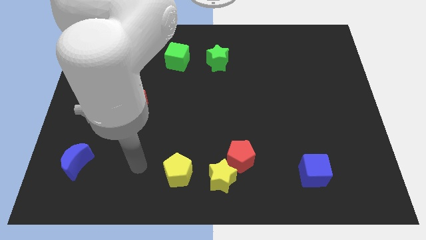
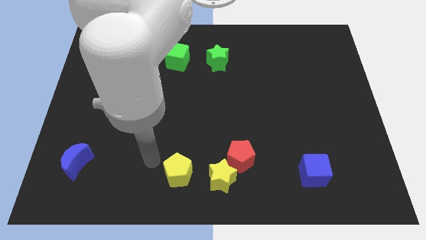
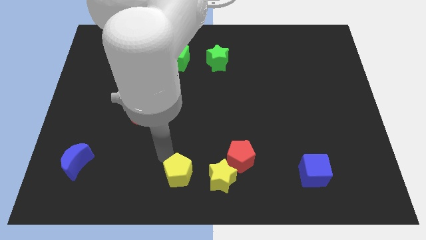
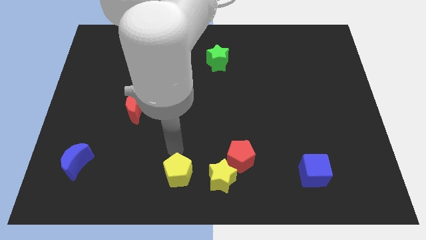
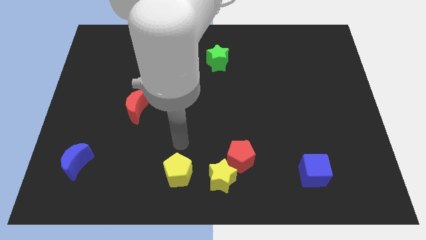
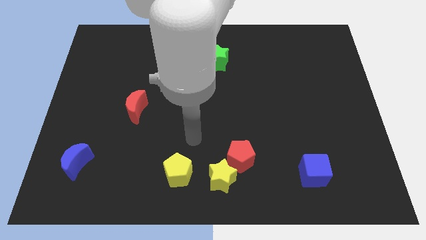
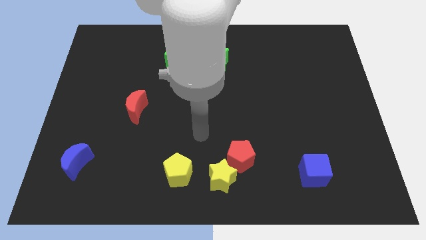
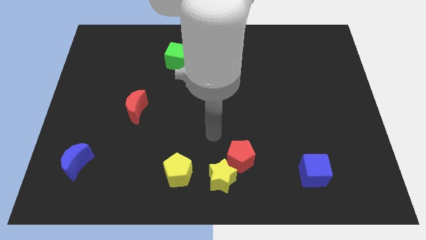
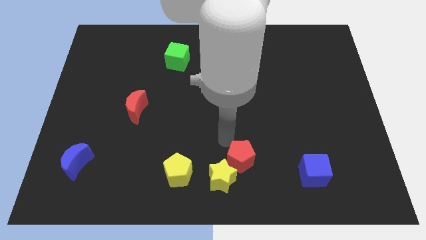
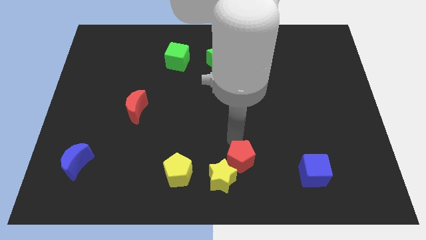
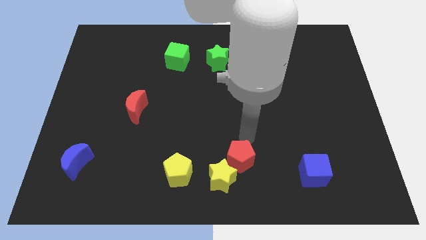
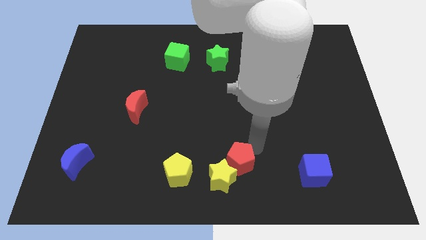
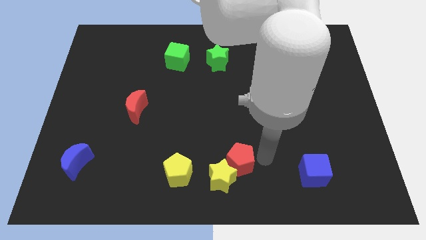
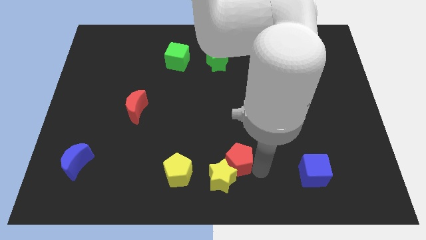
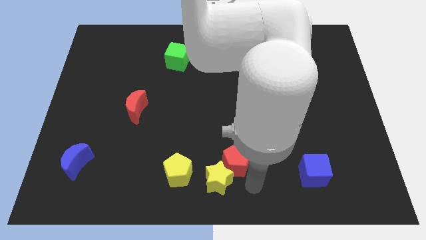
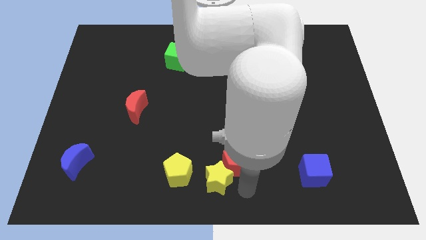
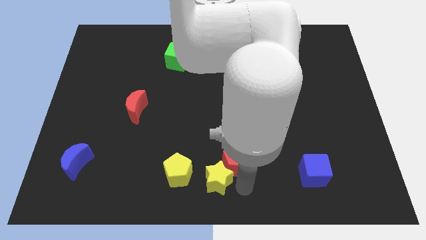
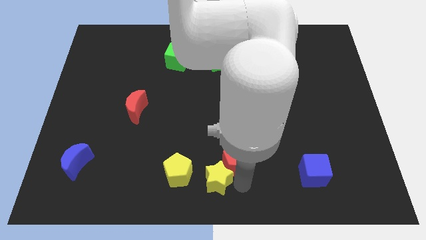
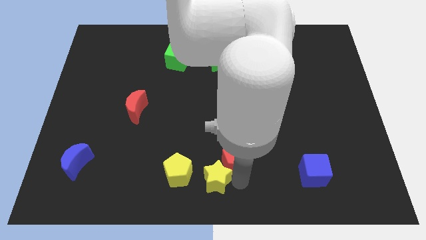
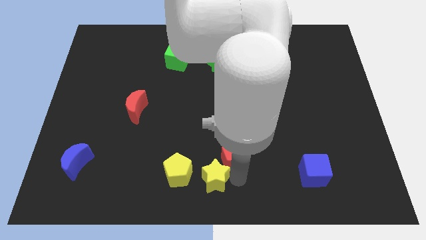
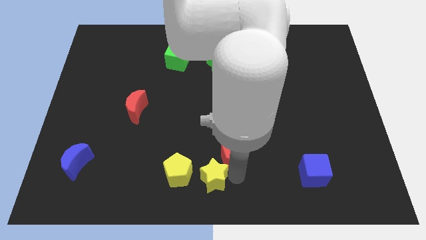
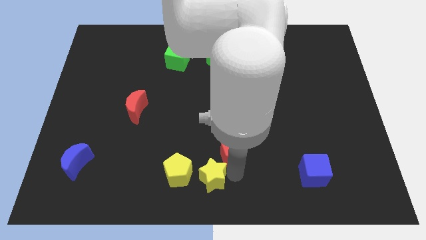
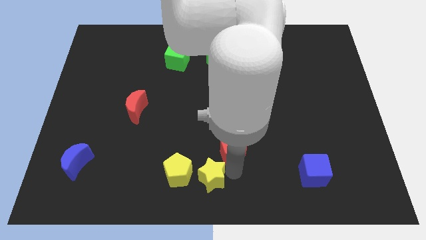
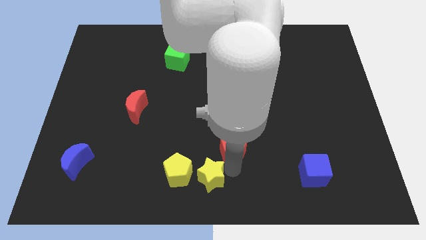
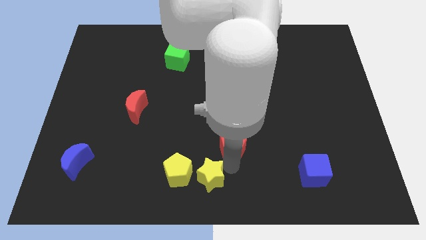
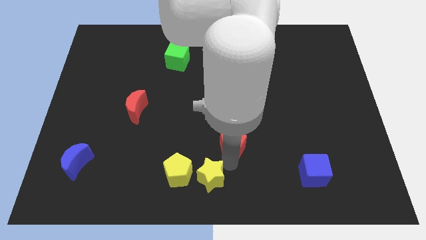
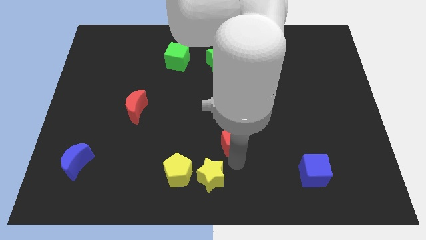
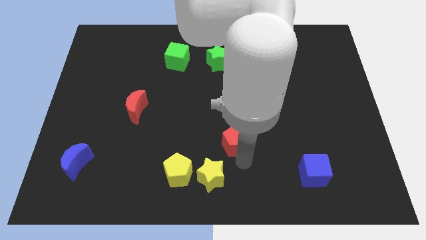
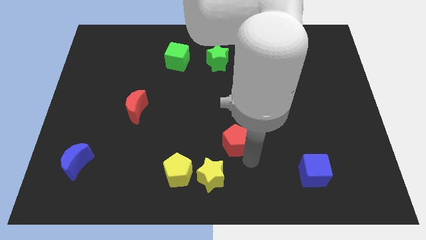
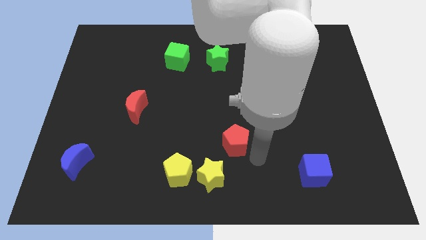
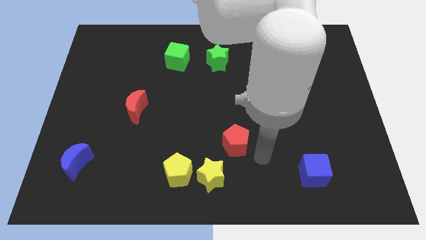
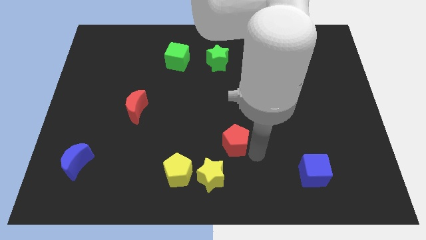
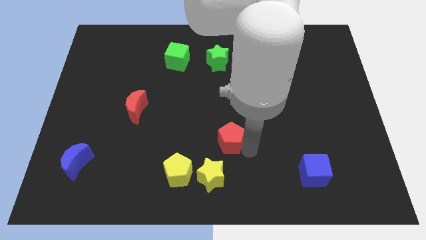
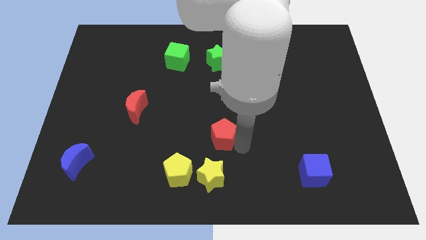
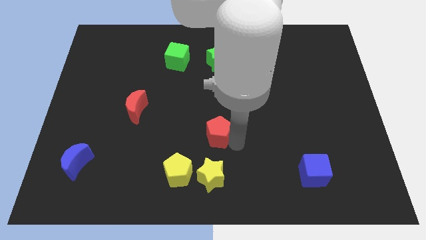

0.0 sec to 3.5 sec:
slightly move the red pentagon upwards and then to the left

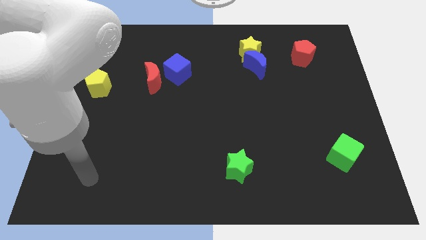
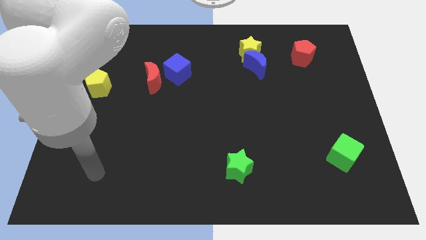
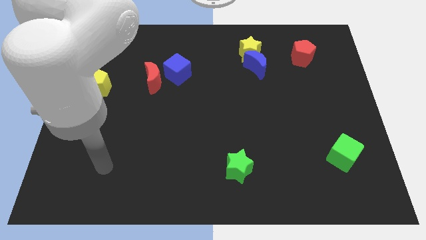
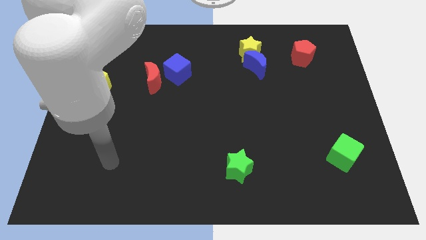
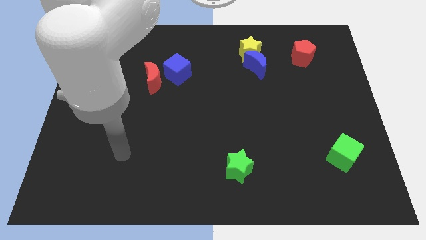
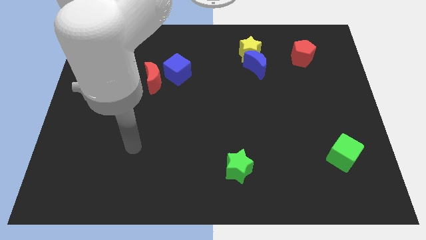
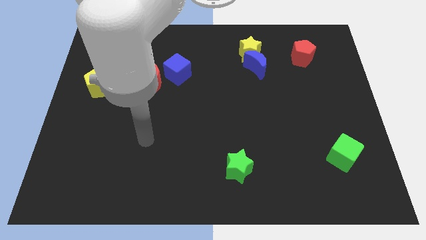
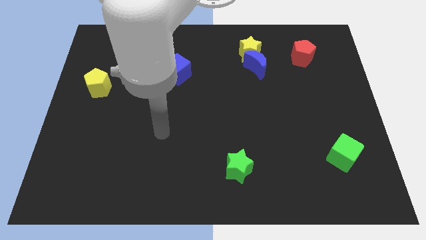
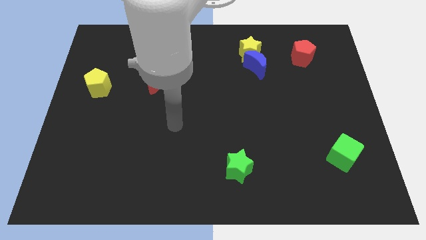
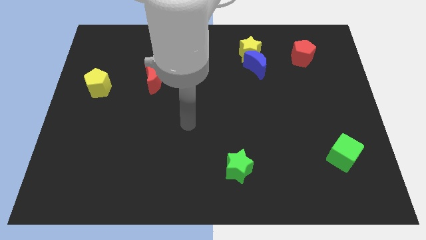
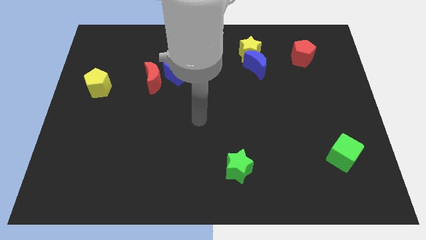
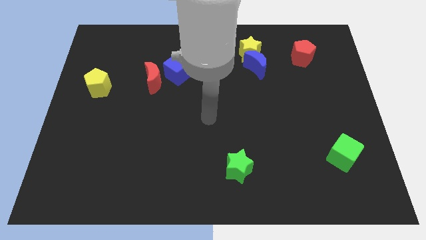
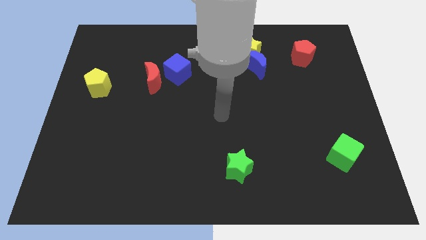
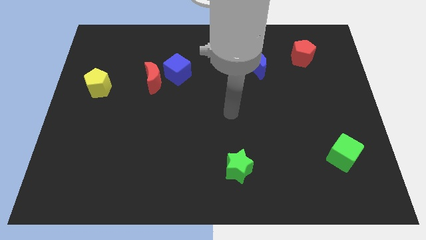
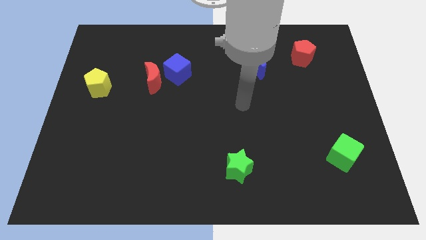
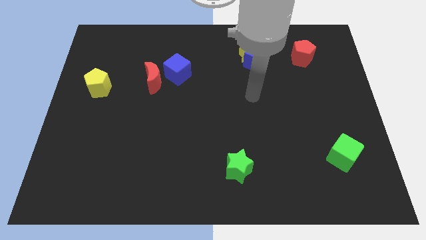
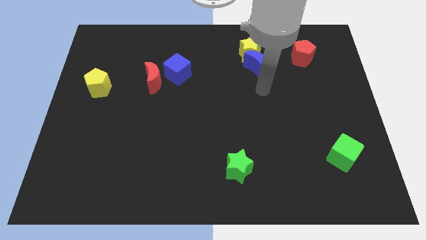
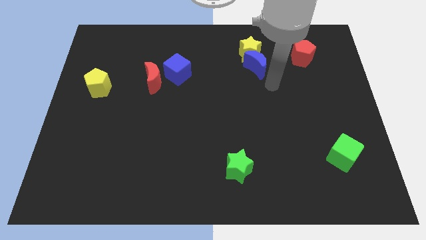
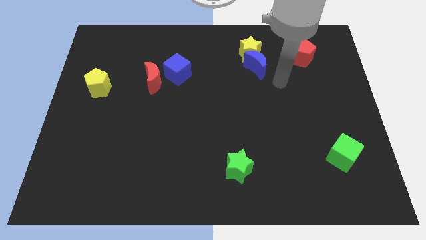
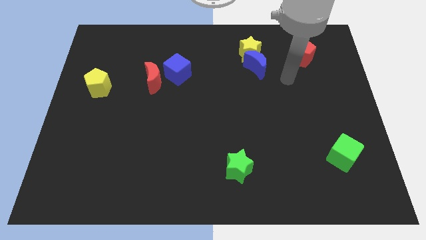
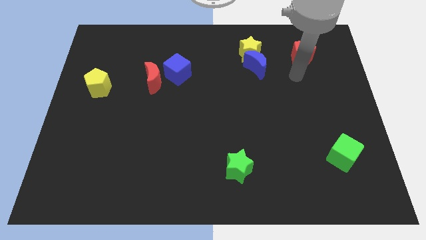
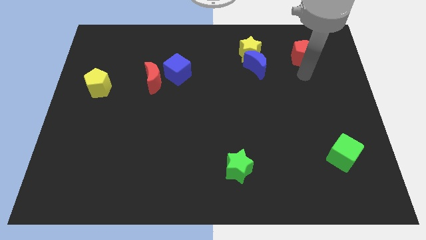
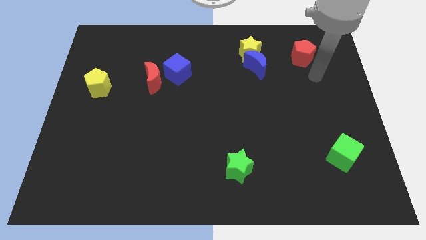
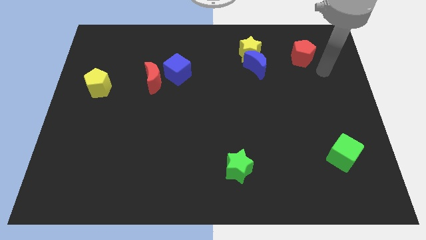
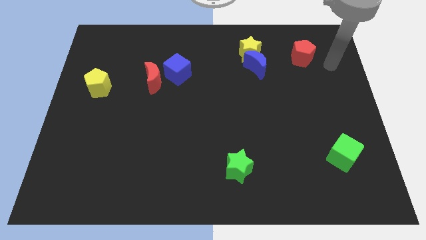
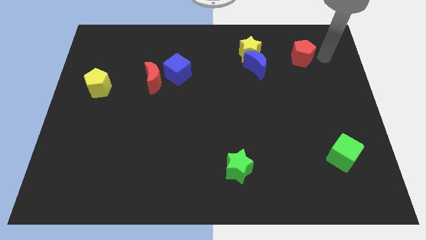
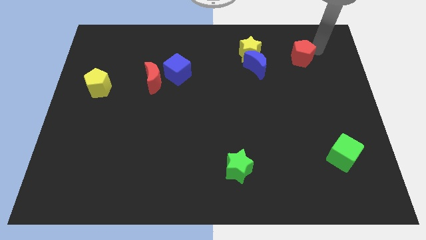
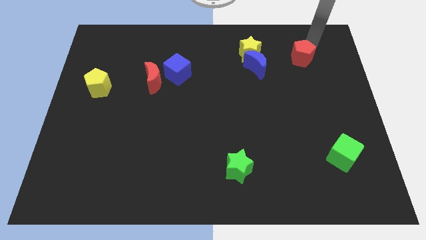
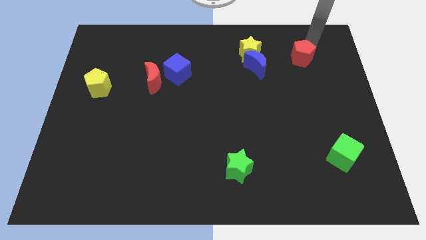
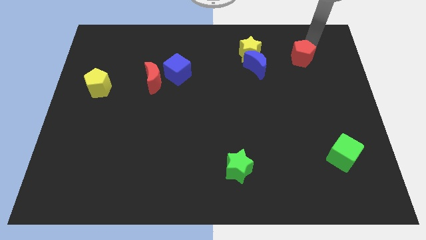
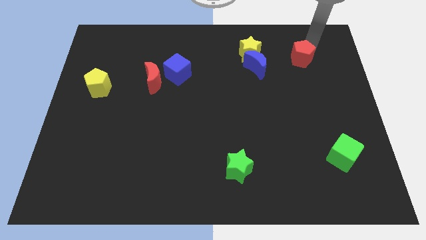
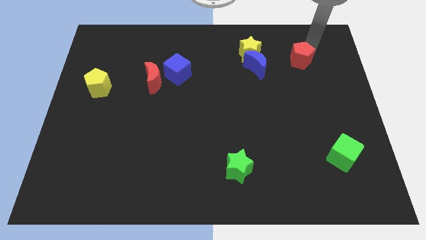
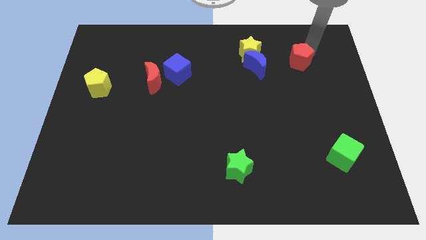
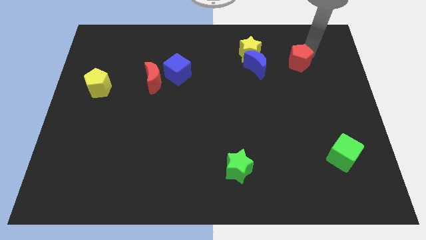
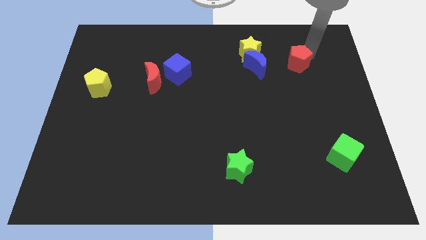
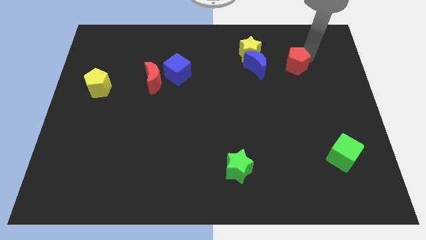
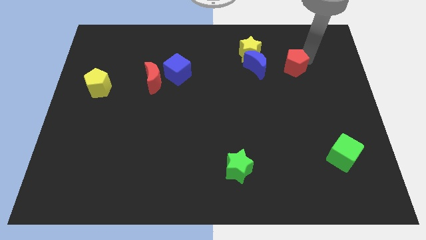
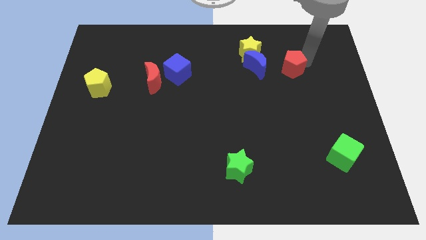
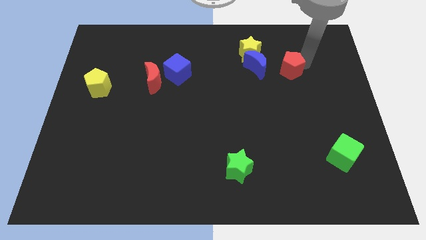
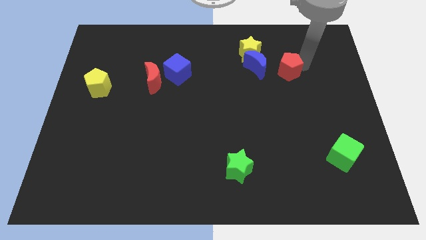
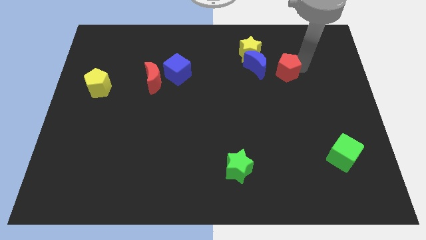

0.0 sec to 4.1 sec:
slightly slide the red pentagon downwards and to the left
